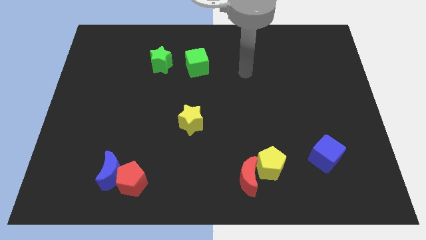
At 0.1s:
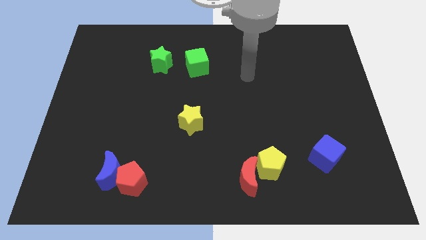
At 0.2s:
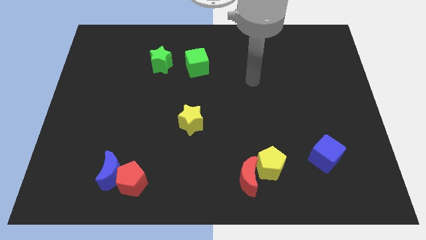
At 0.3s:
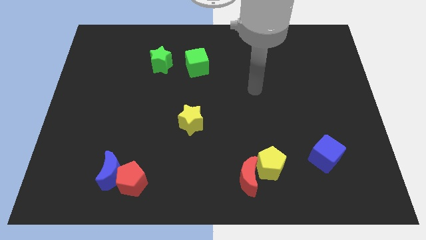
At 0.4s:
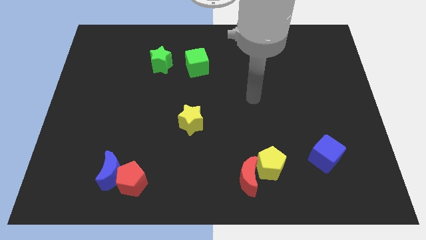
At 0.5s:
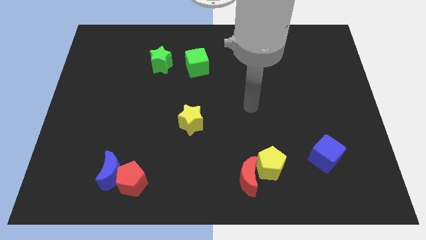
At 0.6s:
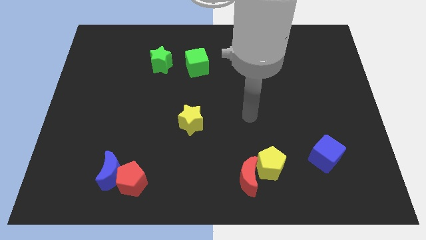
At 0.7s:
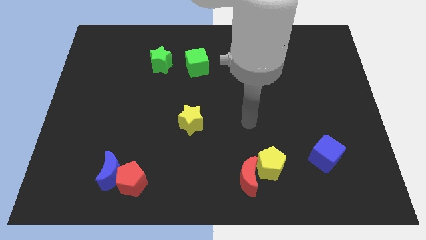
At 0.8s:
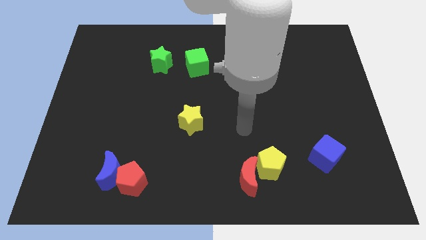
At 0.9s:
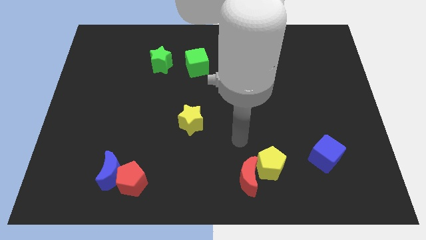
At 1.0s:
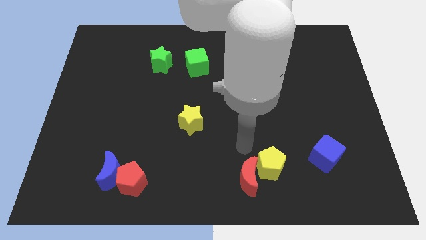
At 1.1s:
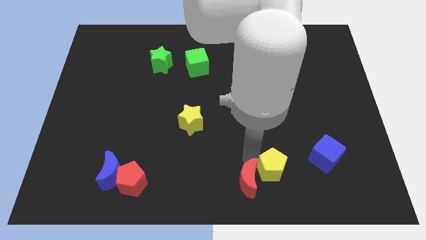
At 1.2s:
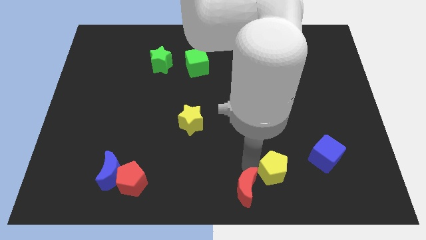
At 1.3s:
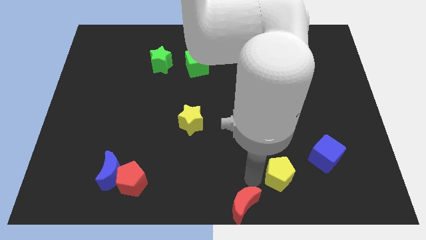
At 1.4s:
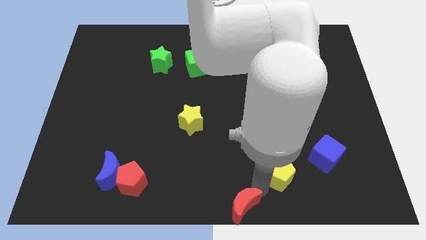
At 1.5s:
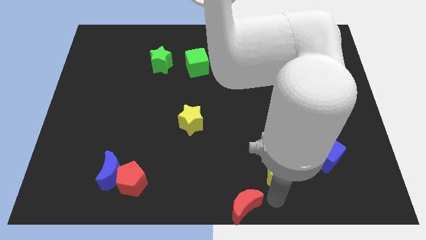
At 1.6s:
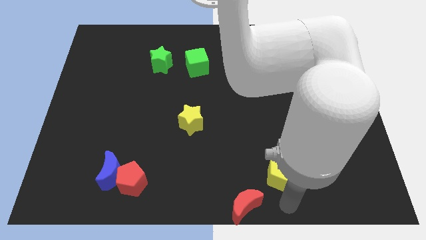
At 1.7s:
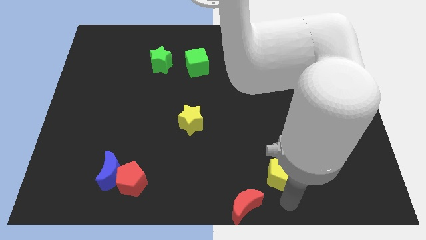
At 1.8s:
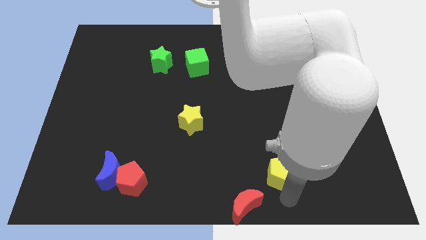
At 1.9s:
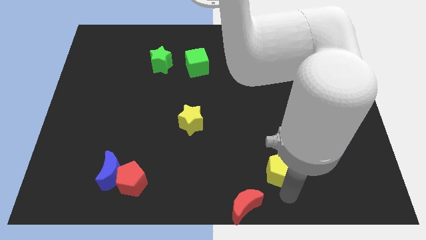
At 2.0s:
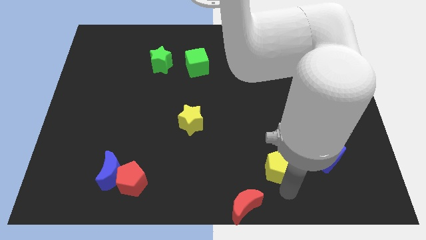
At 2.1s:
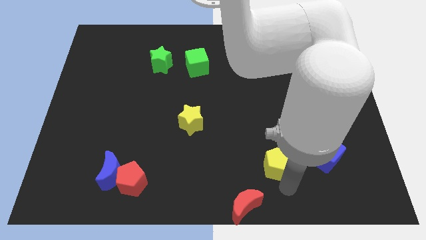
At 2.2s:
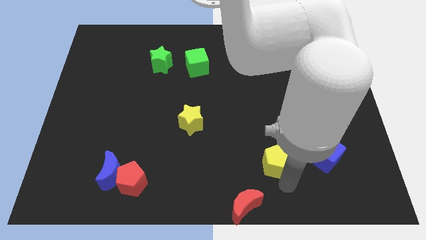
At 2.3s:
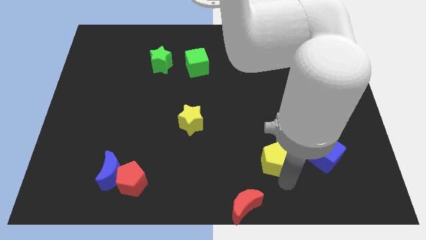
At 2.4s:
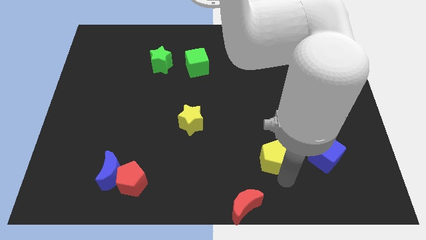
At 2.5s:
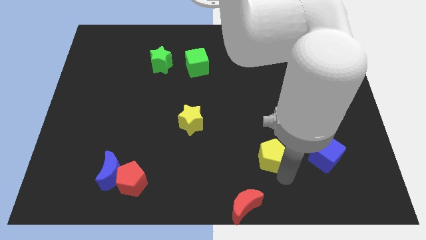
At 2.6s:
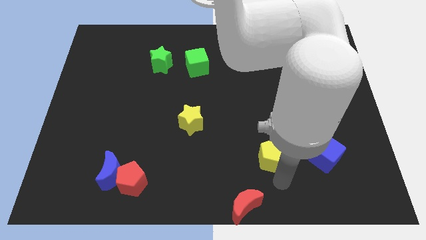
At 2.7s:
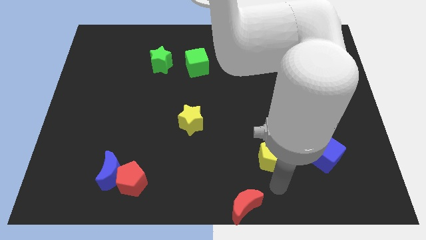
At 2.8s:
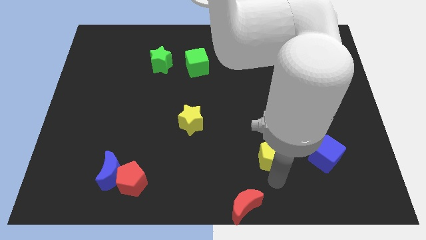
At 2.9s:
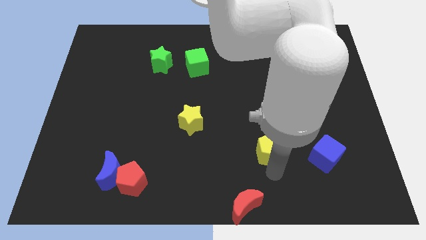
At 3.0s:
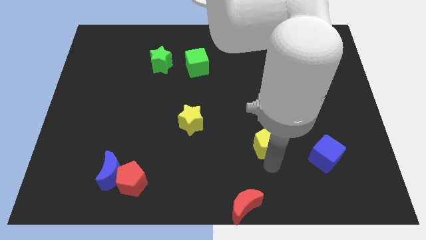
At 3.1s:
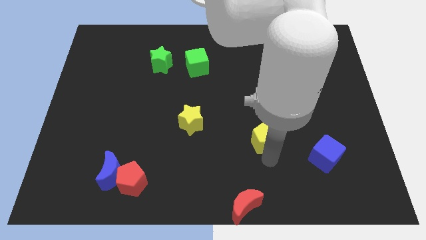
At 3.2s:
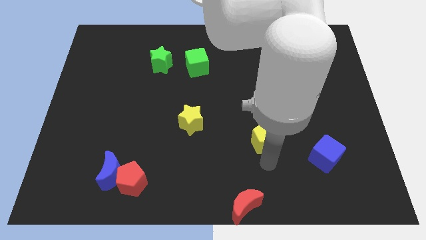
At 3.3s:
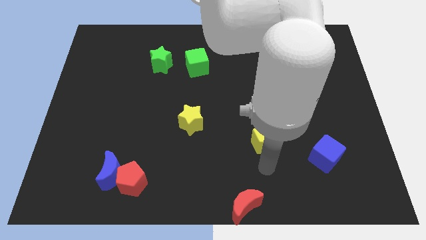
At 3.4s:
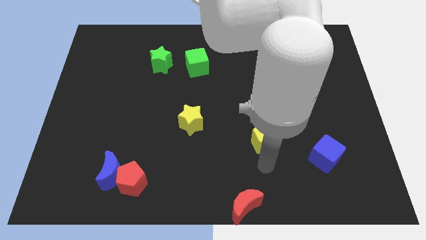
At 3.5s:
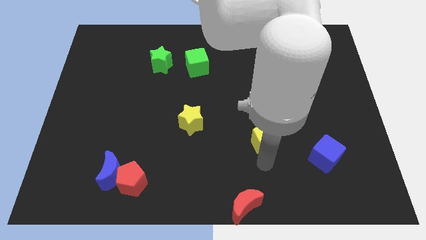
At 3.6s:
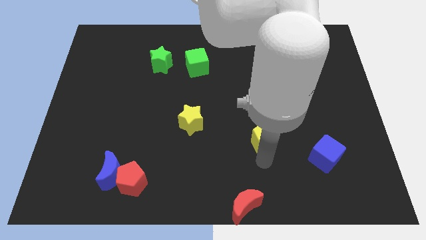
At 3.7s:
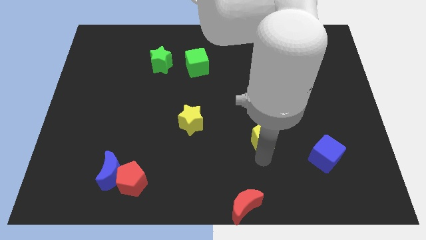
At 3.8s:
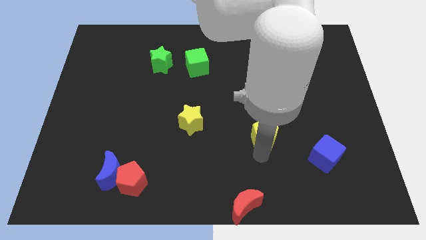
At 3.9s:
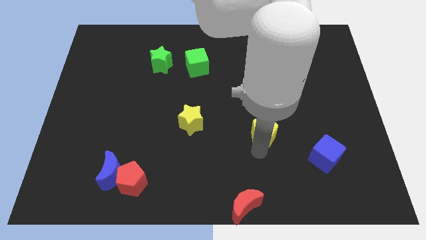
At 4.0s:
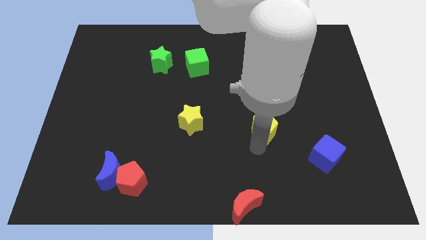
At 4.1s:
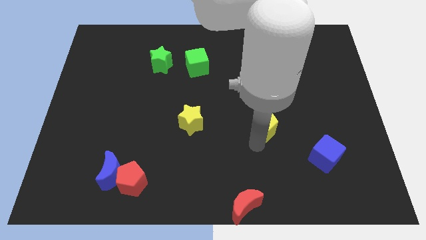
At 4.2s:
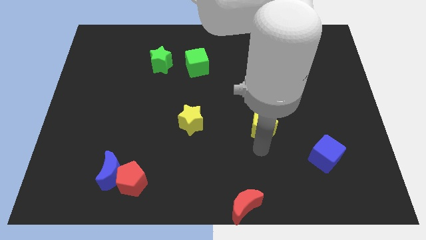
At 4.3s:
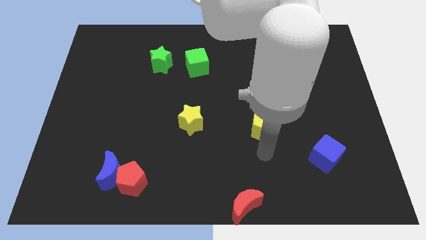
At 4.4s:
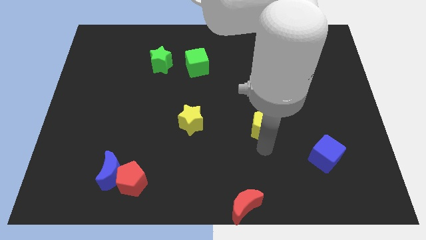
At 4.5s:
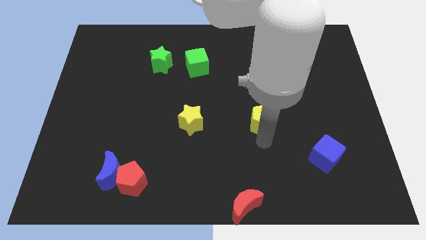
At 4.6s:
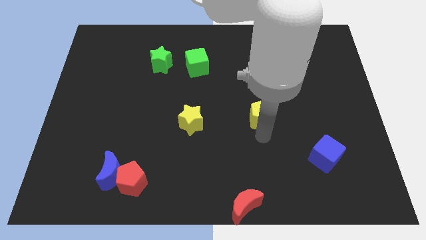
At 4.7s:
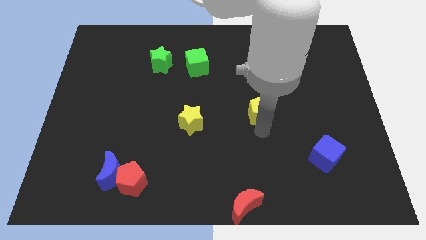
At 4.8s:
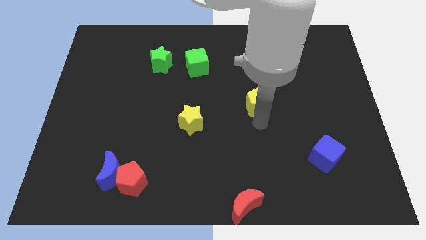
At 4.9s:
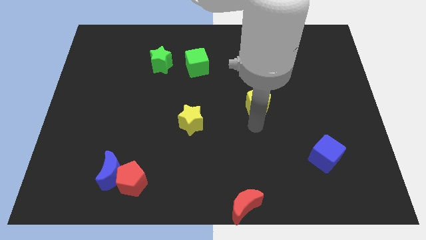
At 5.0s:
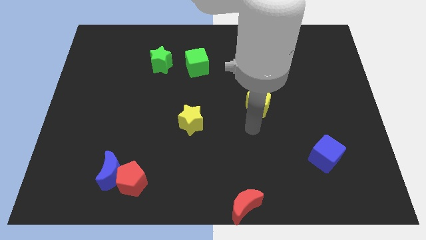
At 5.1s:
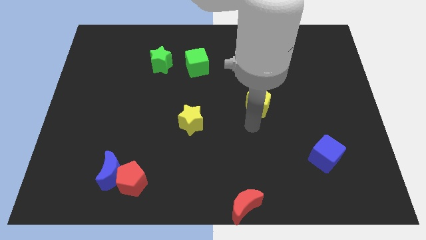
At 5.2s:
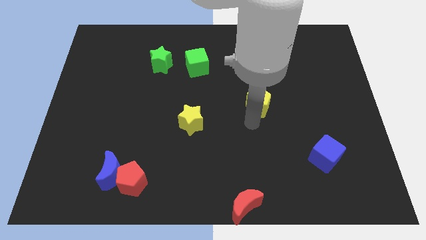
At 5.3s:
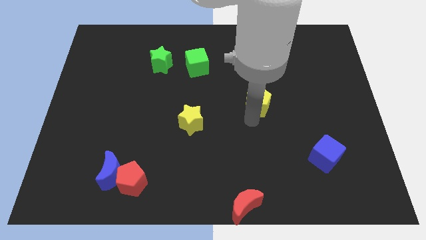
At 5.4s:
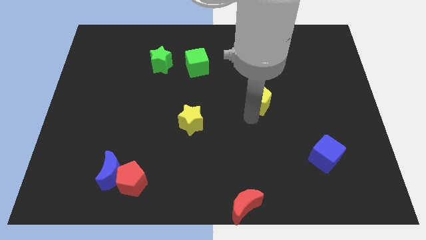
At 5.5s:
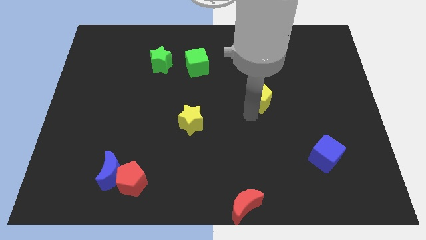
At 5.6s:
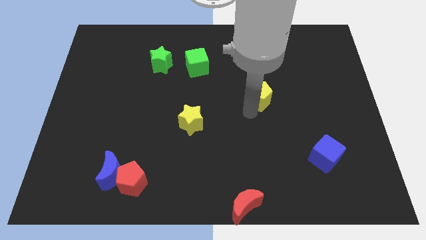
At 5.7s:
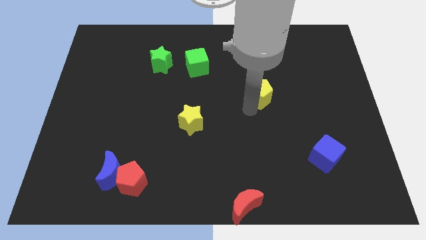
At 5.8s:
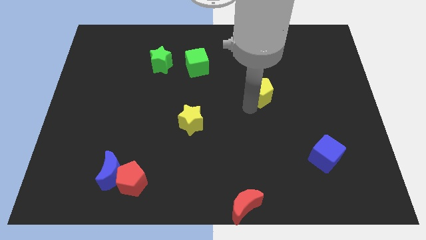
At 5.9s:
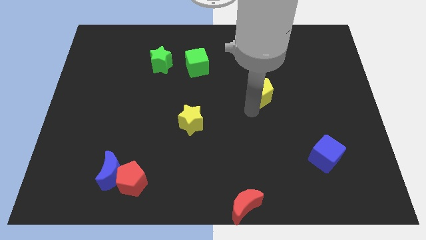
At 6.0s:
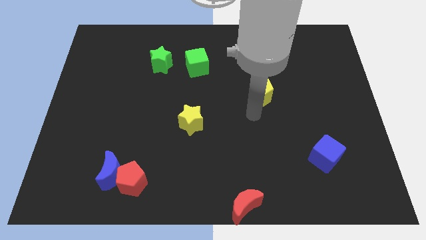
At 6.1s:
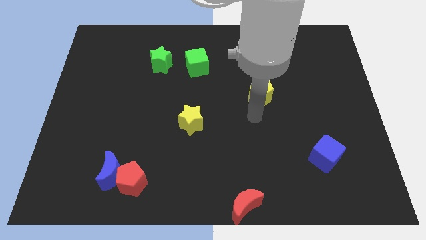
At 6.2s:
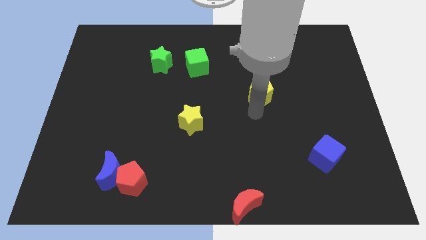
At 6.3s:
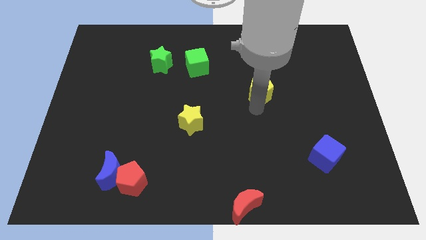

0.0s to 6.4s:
slide the yellow pentagon upwards

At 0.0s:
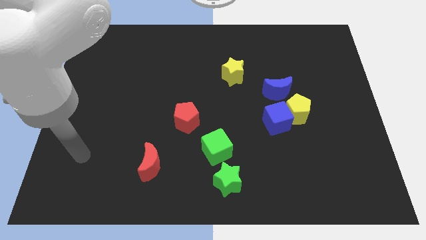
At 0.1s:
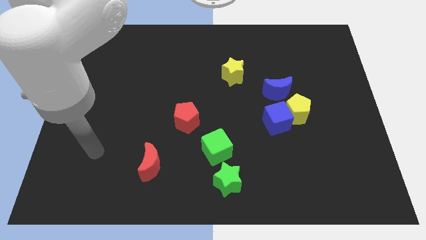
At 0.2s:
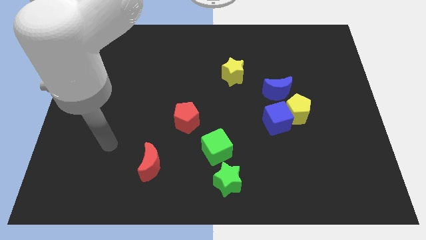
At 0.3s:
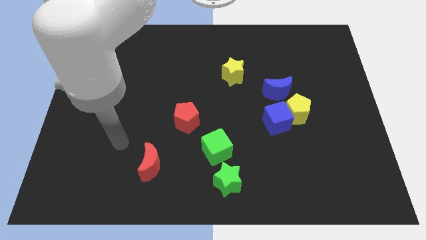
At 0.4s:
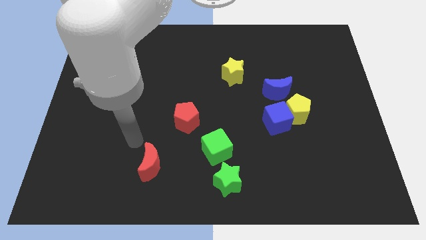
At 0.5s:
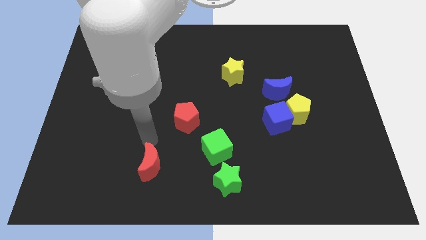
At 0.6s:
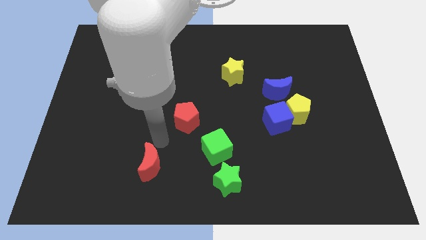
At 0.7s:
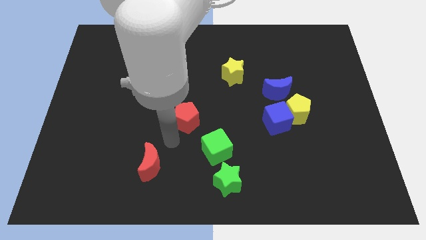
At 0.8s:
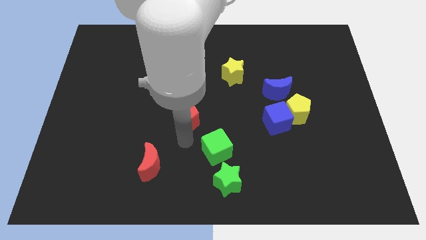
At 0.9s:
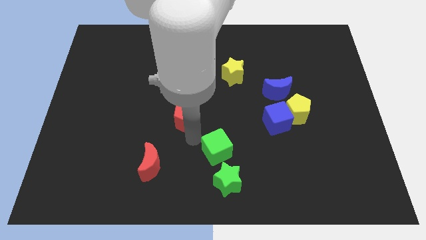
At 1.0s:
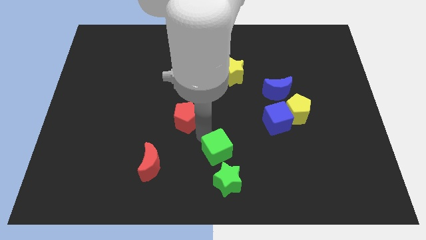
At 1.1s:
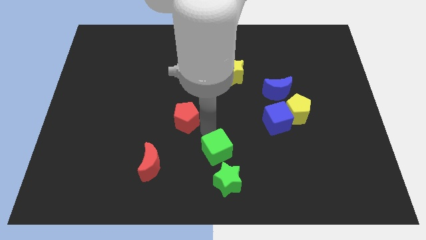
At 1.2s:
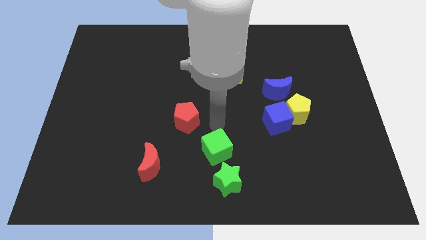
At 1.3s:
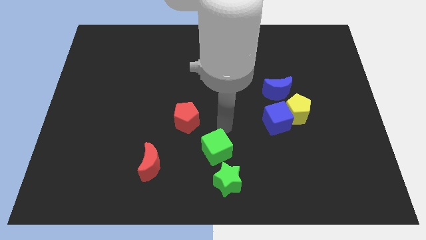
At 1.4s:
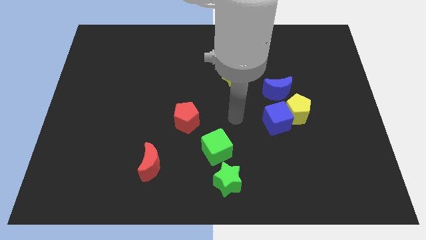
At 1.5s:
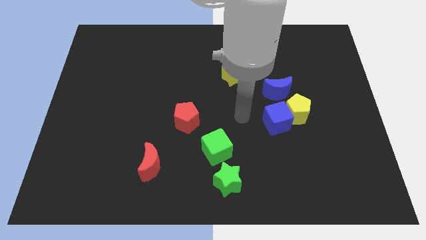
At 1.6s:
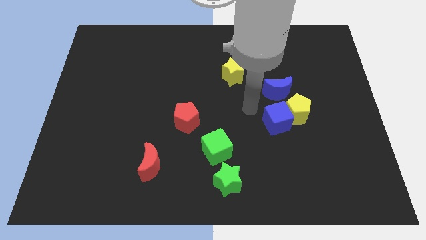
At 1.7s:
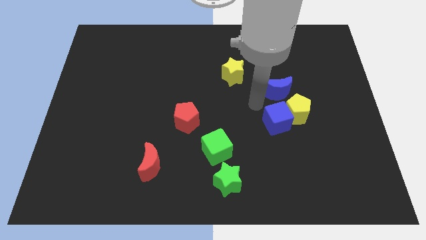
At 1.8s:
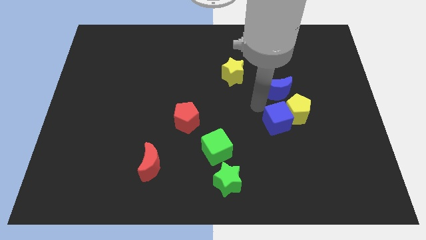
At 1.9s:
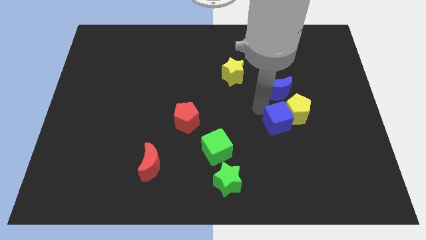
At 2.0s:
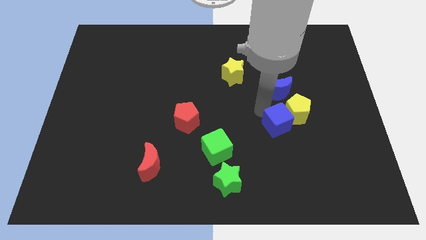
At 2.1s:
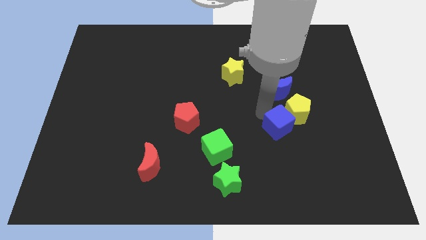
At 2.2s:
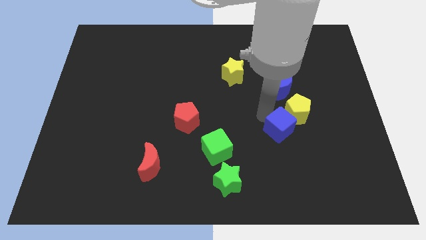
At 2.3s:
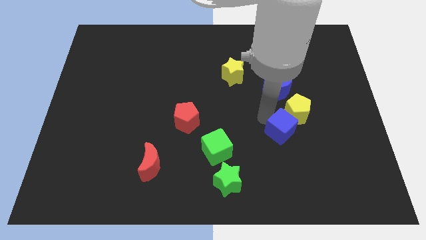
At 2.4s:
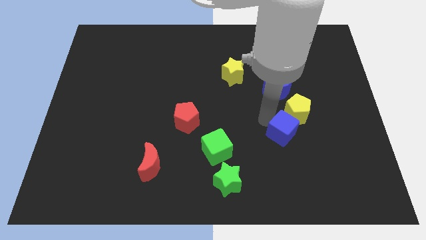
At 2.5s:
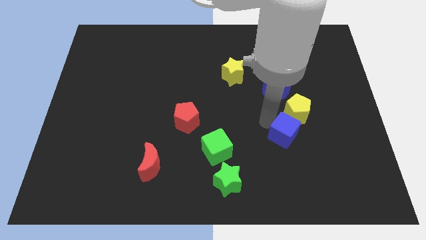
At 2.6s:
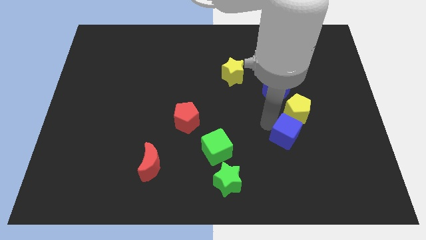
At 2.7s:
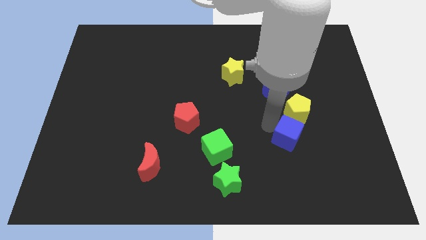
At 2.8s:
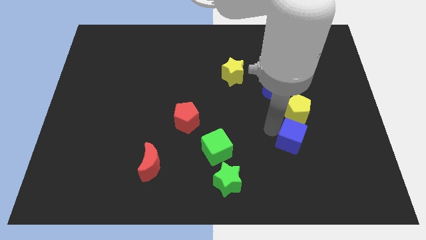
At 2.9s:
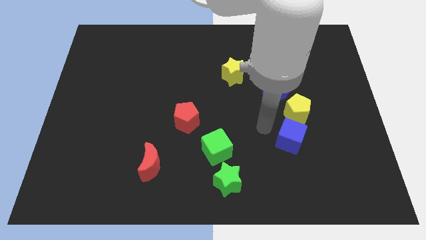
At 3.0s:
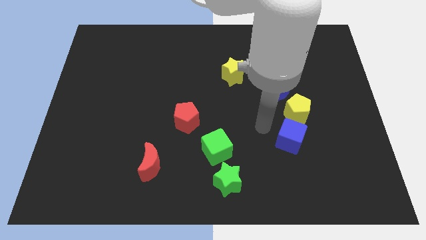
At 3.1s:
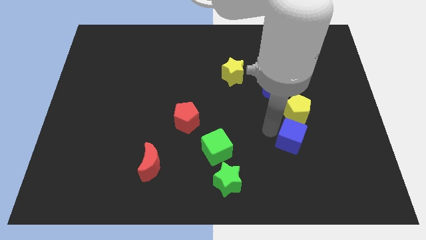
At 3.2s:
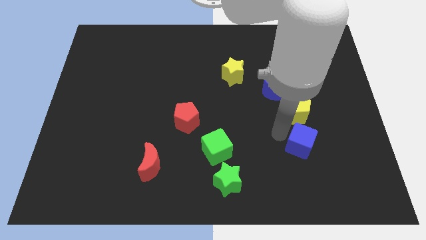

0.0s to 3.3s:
move the blue cube somewhat downwards and then right
